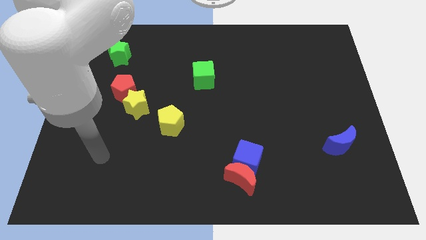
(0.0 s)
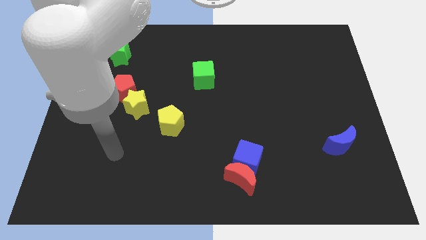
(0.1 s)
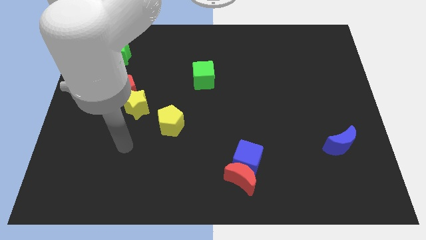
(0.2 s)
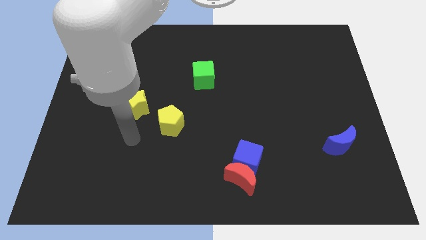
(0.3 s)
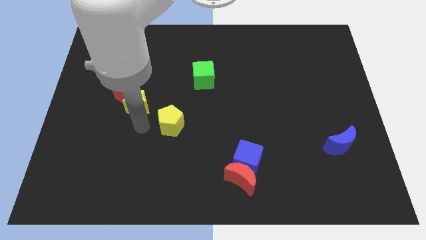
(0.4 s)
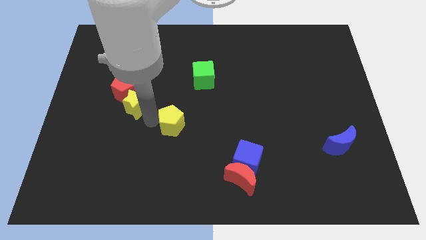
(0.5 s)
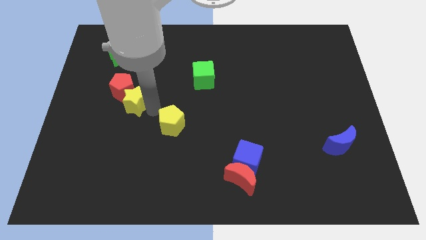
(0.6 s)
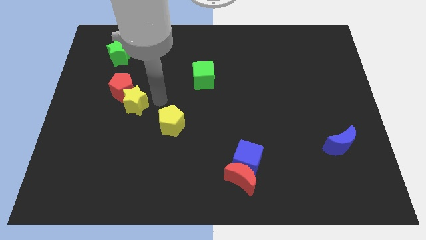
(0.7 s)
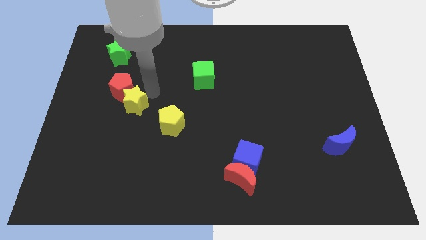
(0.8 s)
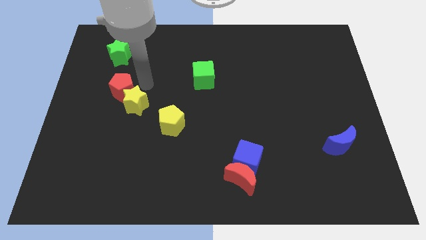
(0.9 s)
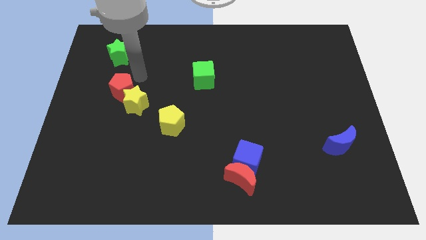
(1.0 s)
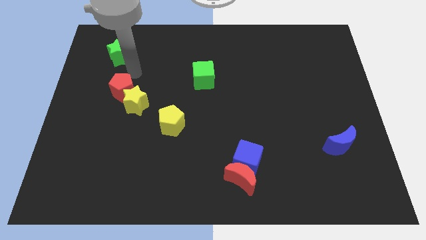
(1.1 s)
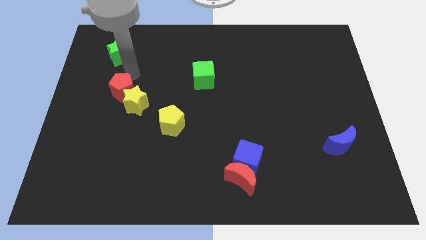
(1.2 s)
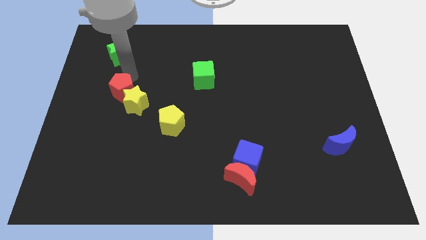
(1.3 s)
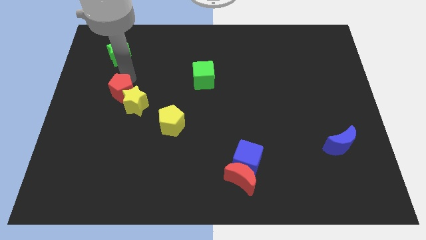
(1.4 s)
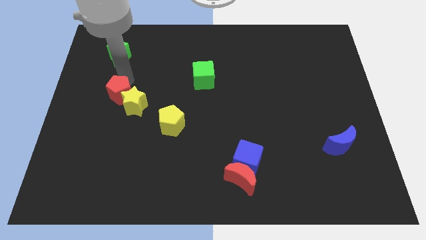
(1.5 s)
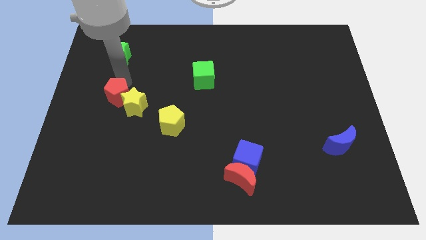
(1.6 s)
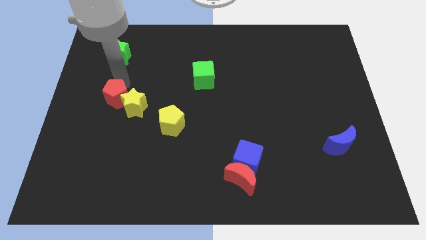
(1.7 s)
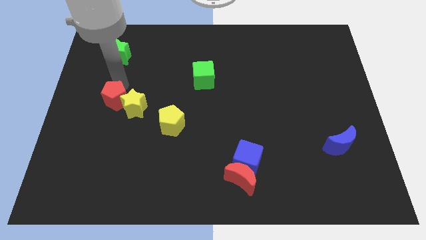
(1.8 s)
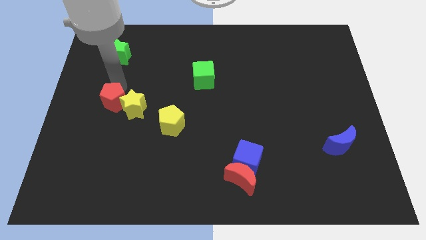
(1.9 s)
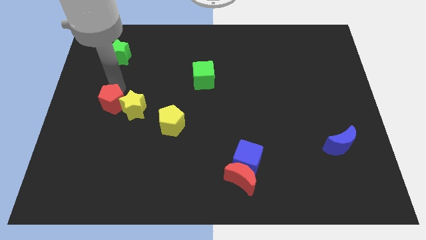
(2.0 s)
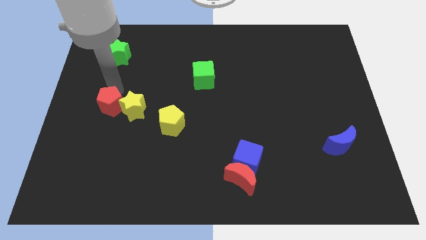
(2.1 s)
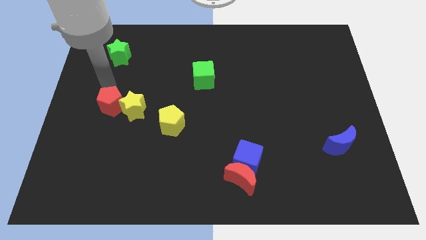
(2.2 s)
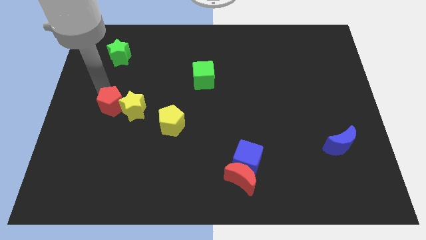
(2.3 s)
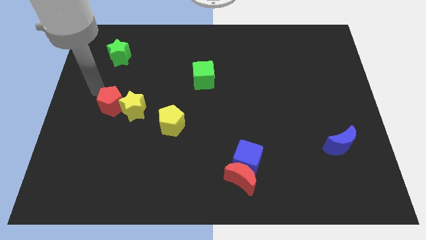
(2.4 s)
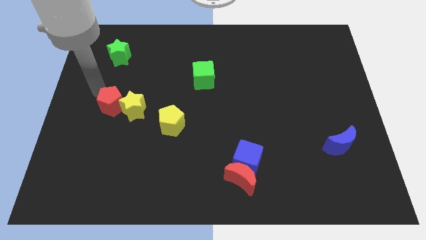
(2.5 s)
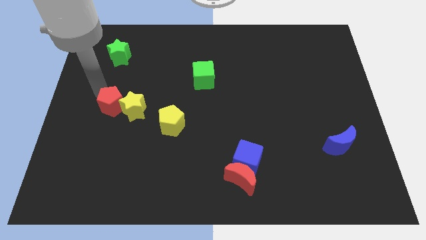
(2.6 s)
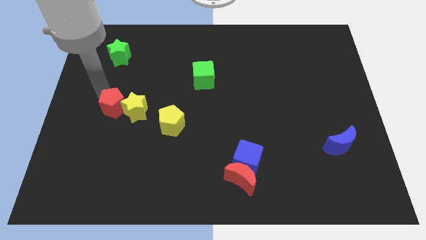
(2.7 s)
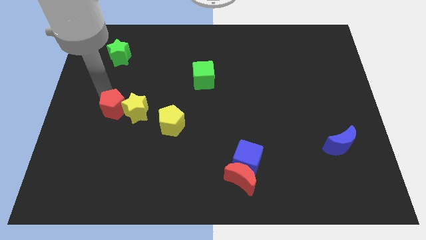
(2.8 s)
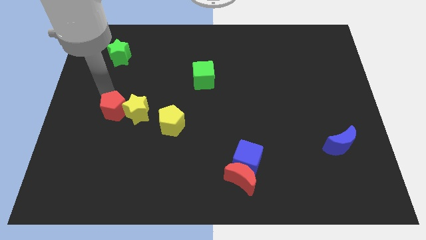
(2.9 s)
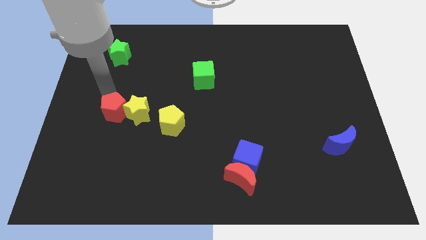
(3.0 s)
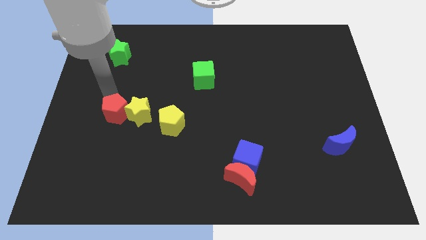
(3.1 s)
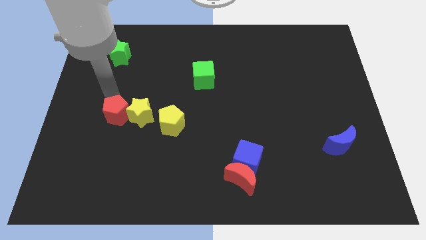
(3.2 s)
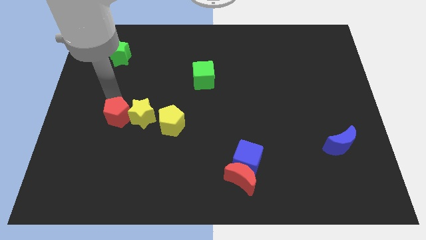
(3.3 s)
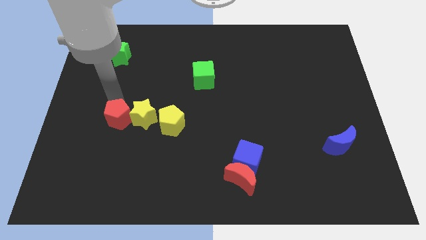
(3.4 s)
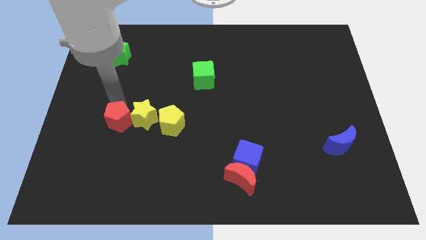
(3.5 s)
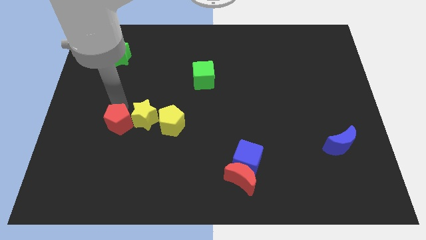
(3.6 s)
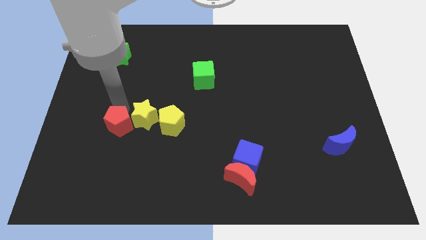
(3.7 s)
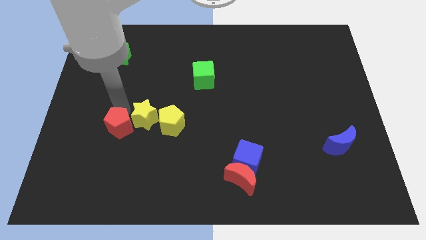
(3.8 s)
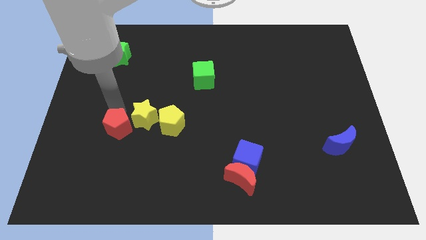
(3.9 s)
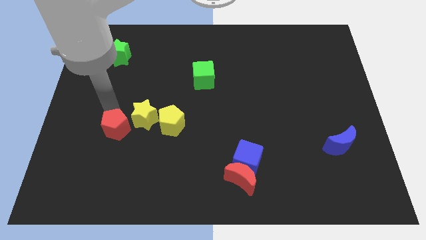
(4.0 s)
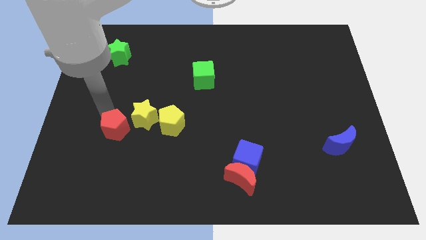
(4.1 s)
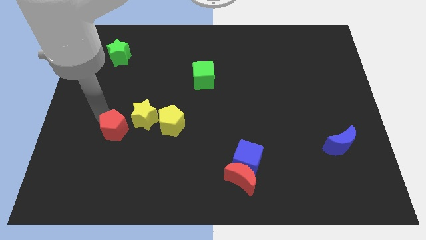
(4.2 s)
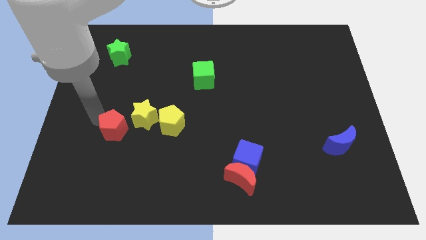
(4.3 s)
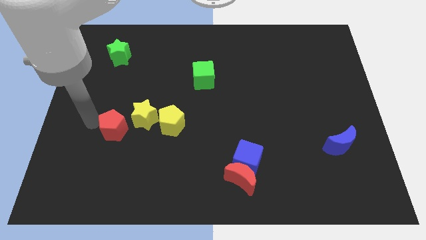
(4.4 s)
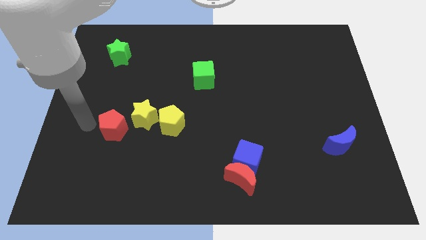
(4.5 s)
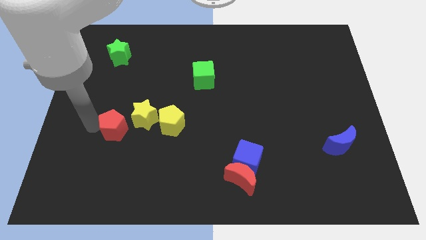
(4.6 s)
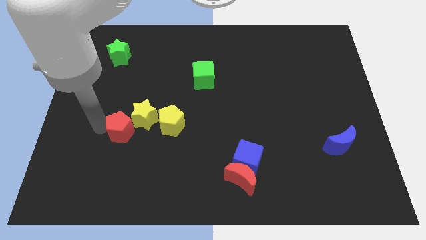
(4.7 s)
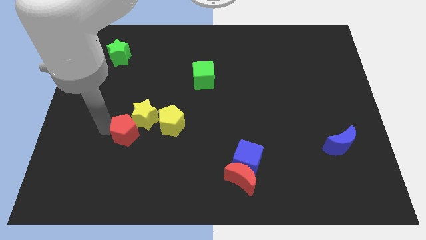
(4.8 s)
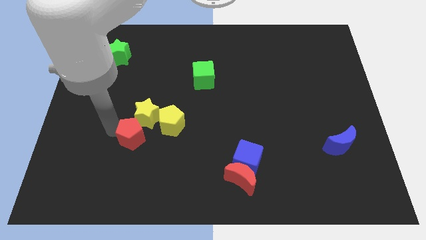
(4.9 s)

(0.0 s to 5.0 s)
put the red pentagon to the bottom left of the yellow pentagon

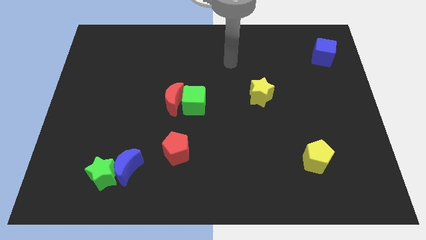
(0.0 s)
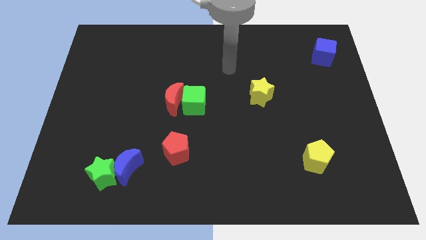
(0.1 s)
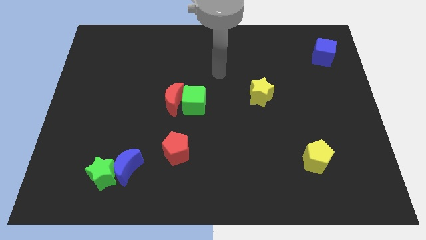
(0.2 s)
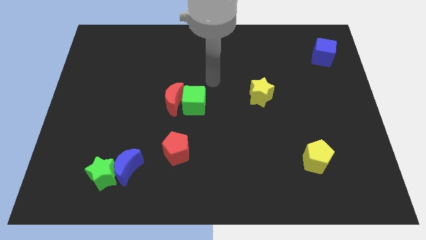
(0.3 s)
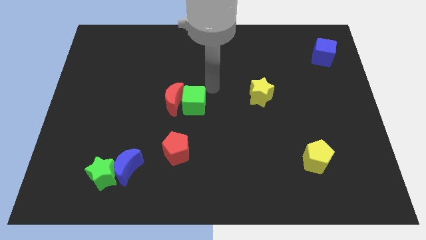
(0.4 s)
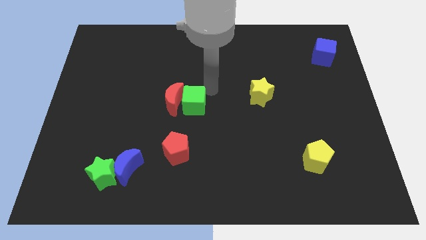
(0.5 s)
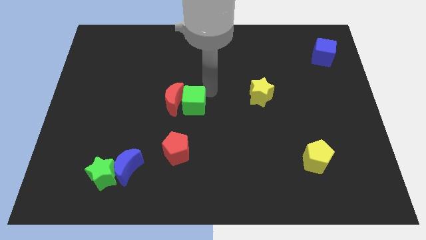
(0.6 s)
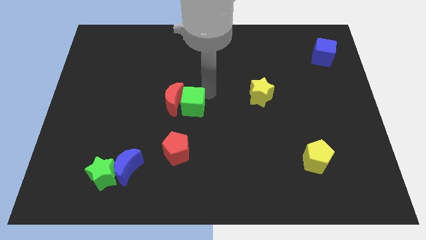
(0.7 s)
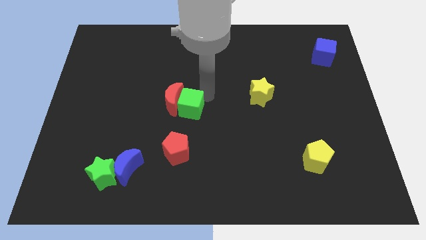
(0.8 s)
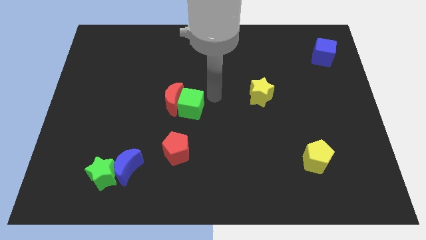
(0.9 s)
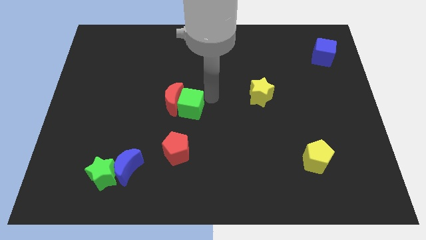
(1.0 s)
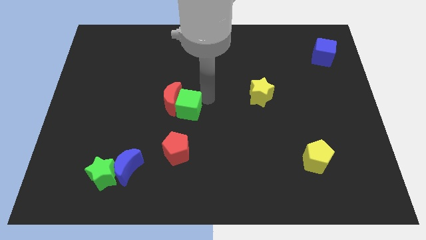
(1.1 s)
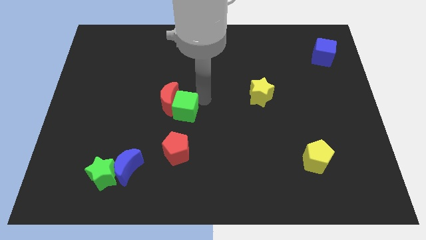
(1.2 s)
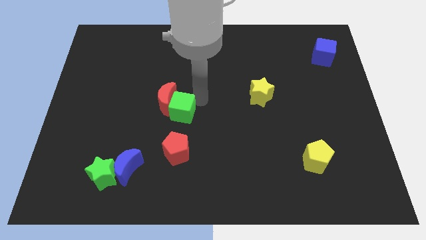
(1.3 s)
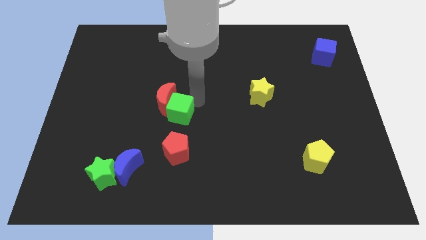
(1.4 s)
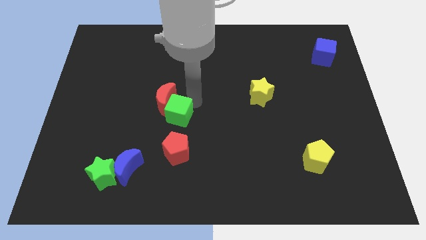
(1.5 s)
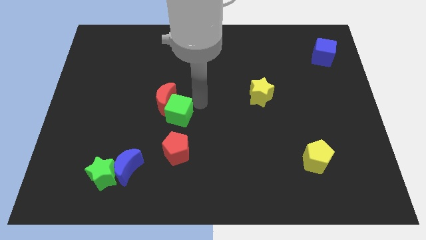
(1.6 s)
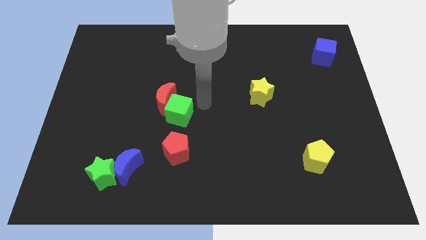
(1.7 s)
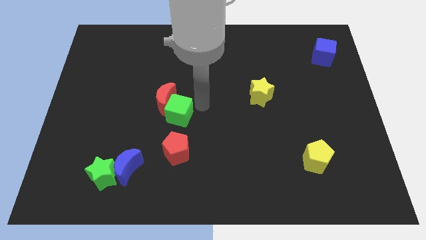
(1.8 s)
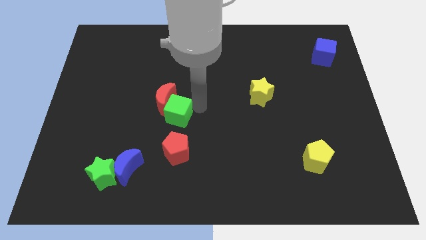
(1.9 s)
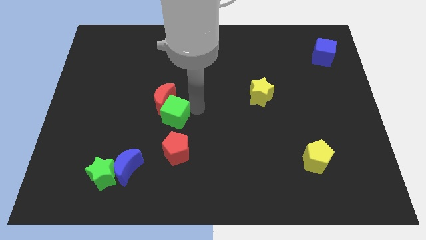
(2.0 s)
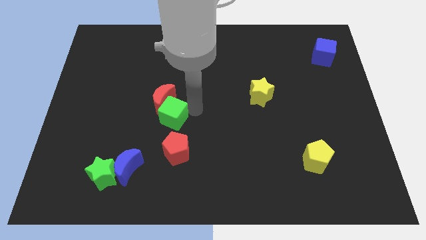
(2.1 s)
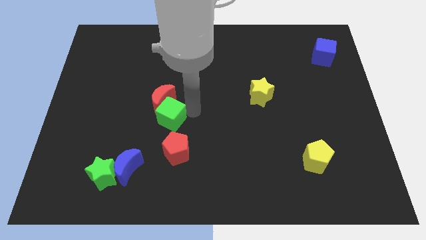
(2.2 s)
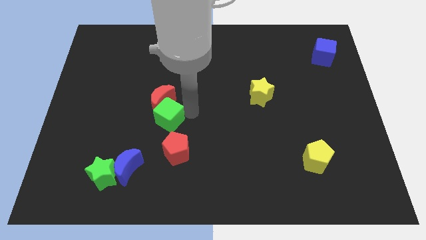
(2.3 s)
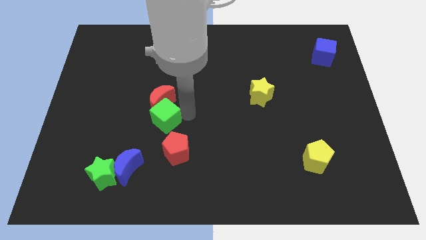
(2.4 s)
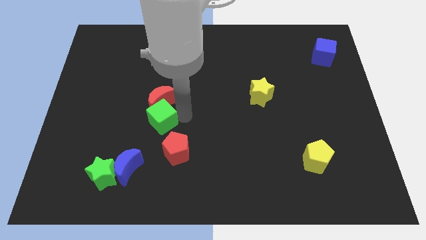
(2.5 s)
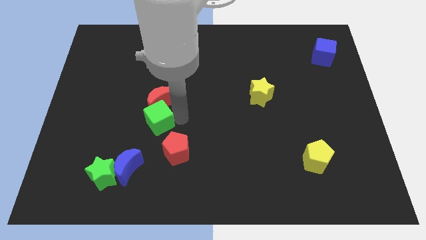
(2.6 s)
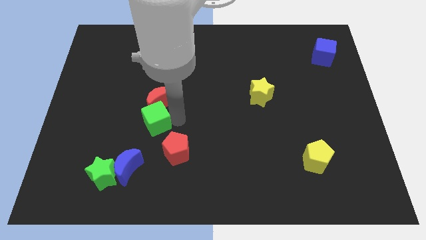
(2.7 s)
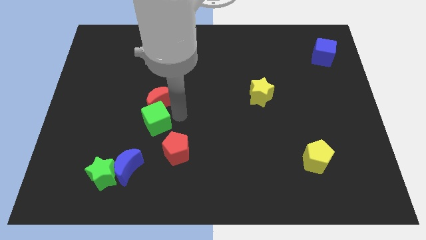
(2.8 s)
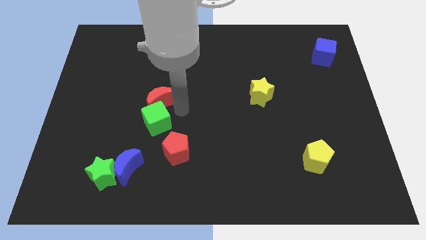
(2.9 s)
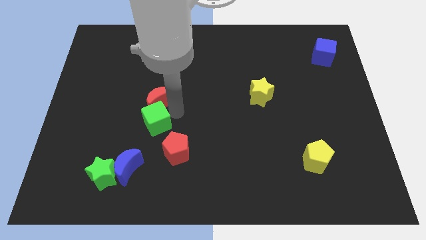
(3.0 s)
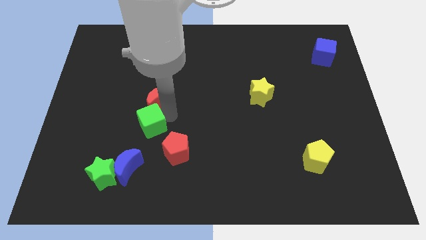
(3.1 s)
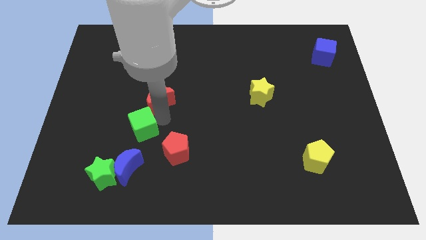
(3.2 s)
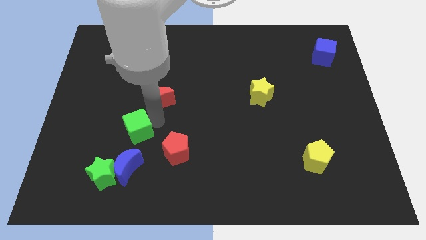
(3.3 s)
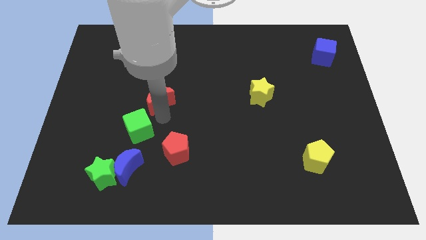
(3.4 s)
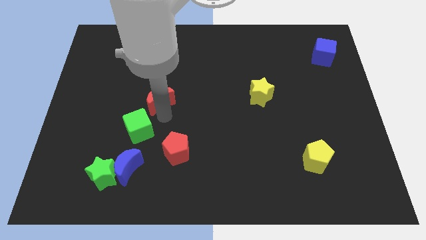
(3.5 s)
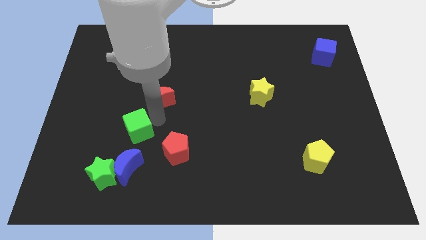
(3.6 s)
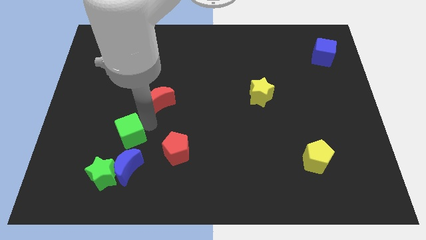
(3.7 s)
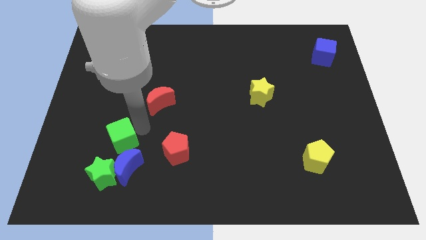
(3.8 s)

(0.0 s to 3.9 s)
slide the green cube to the top left of the blue moon
